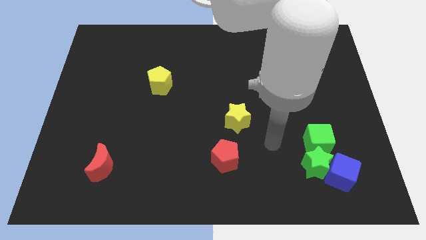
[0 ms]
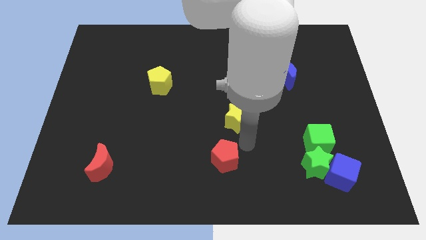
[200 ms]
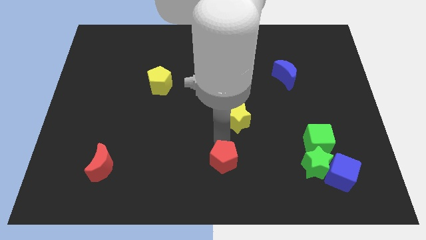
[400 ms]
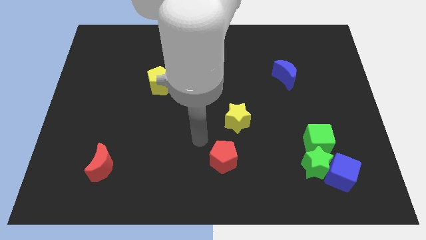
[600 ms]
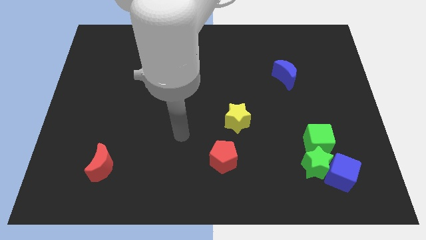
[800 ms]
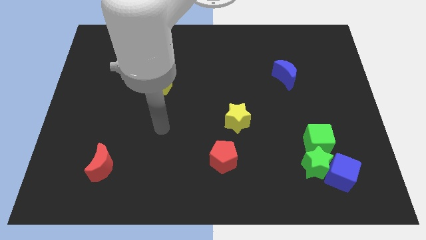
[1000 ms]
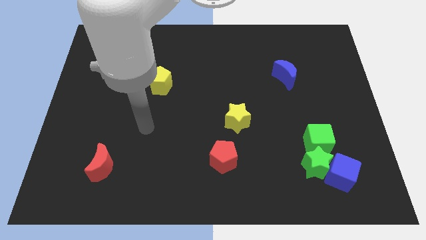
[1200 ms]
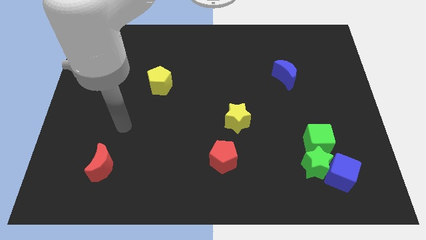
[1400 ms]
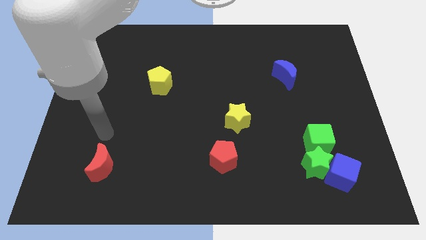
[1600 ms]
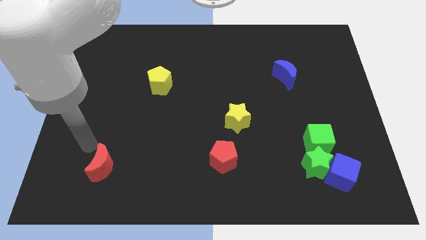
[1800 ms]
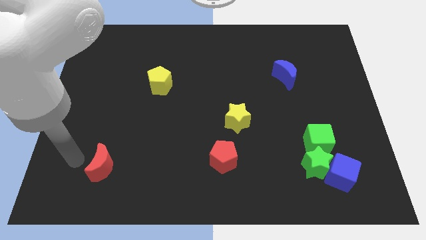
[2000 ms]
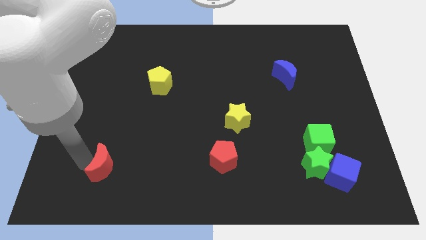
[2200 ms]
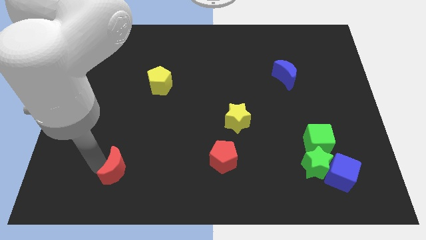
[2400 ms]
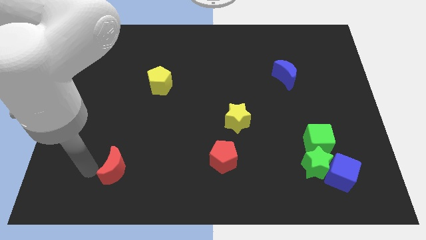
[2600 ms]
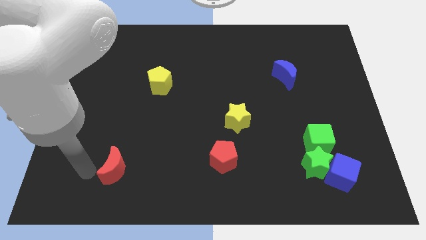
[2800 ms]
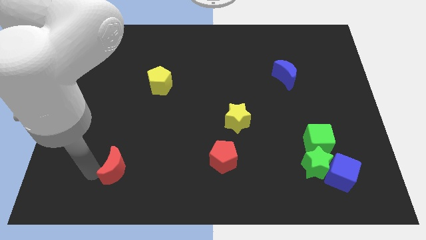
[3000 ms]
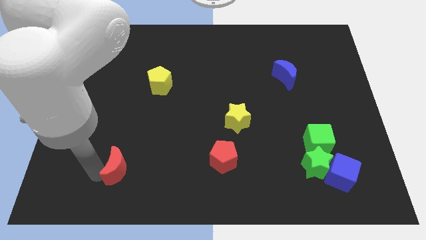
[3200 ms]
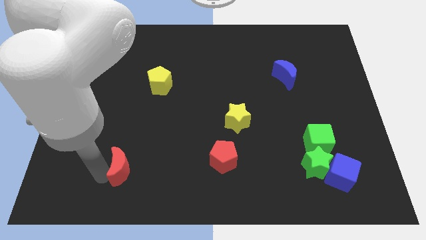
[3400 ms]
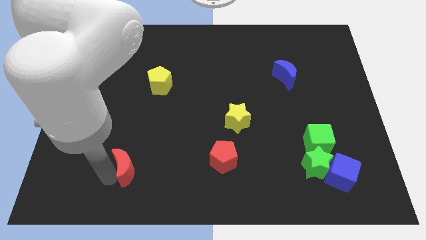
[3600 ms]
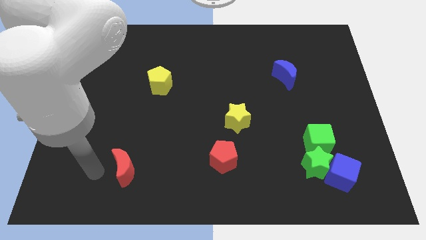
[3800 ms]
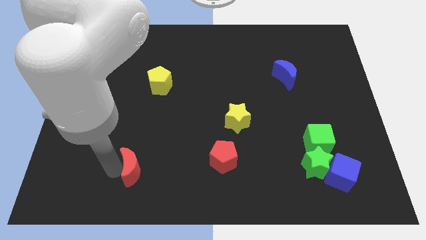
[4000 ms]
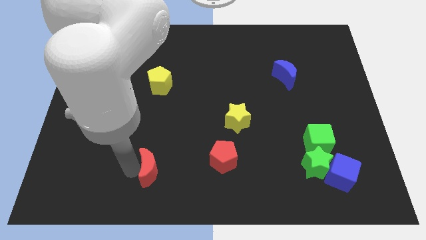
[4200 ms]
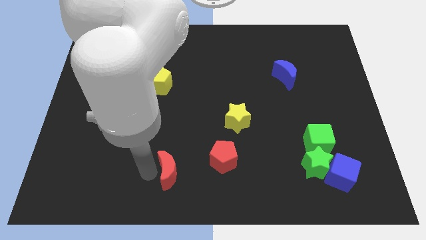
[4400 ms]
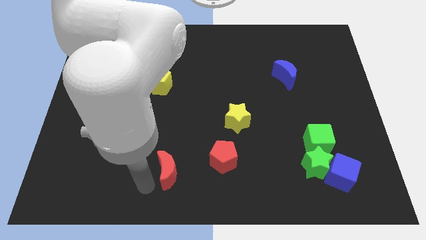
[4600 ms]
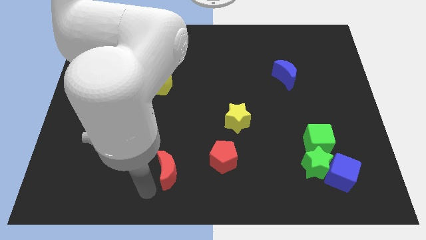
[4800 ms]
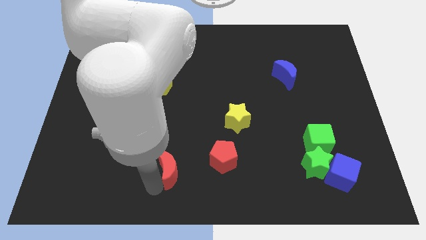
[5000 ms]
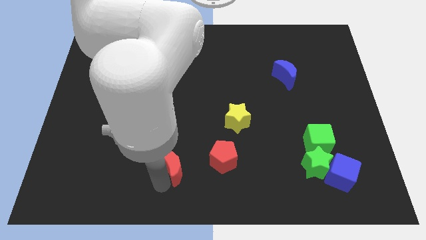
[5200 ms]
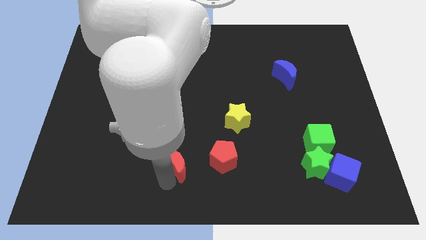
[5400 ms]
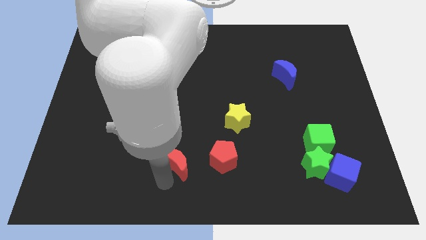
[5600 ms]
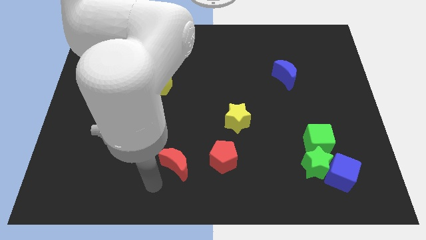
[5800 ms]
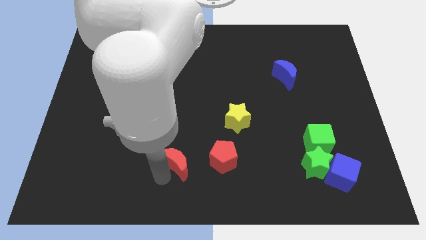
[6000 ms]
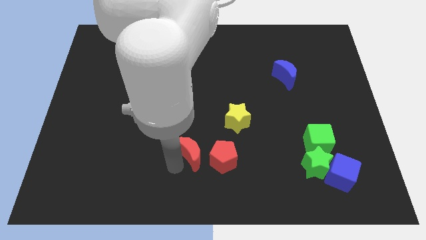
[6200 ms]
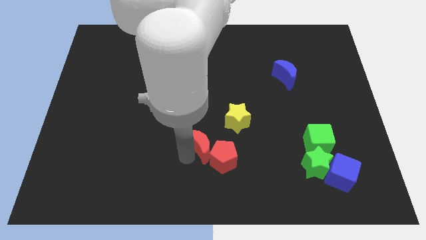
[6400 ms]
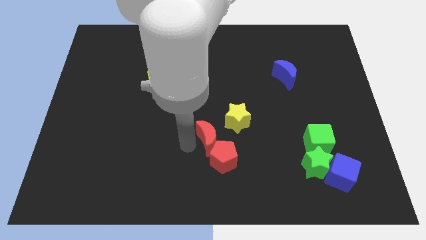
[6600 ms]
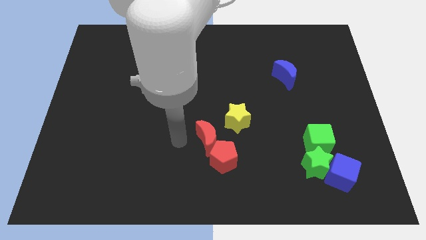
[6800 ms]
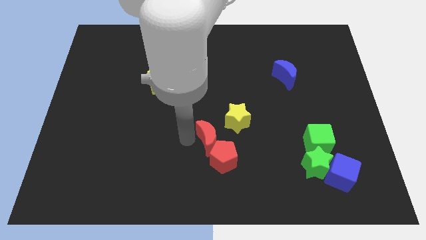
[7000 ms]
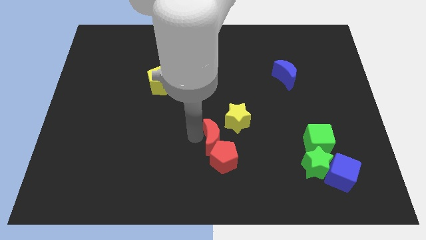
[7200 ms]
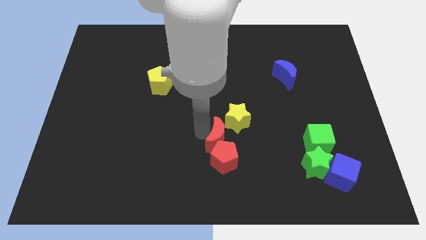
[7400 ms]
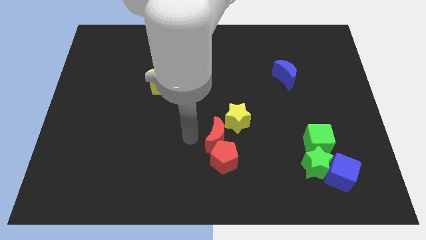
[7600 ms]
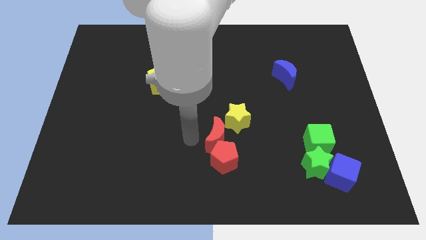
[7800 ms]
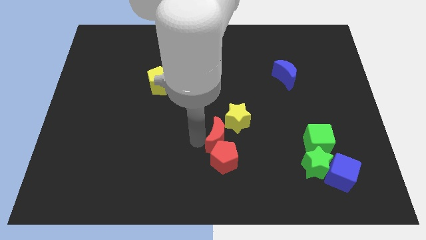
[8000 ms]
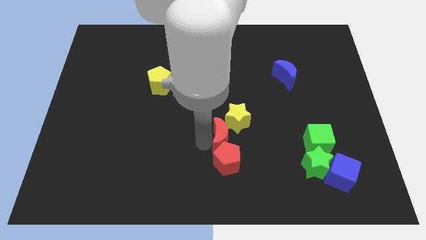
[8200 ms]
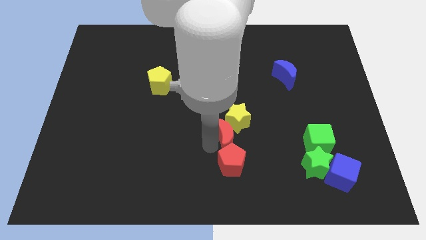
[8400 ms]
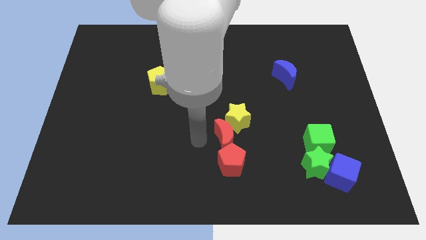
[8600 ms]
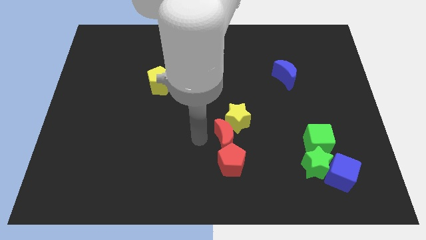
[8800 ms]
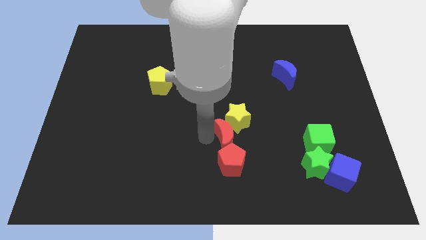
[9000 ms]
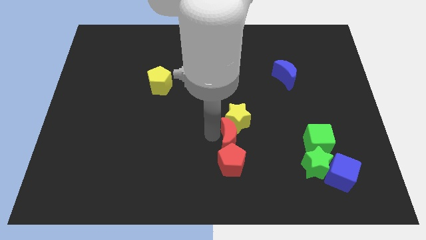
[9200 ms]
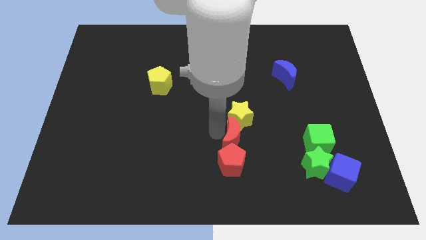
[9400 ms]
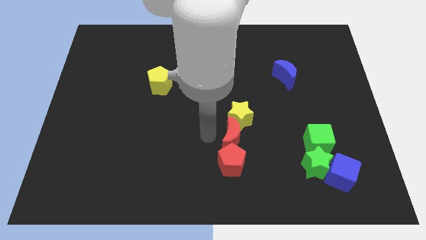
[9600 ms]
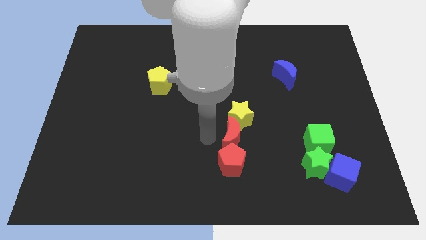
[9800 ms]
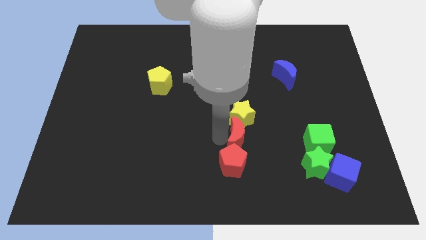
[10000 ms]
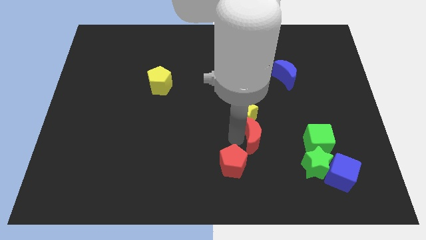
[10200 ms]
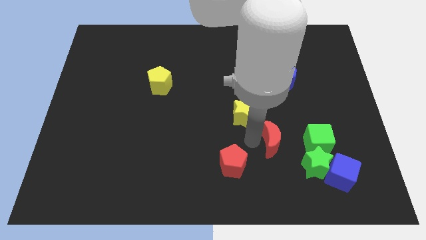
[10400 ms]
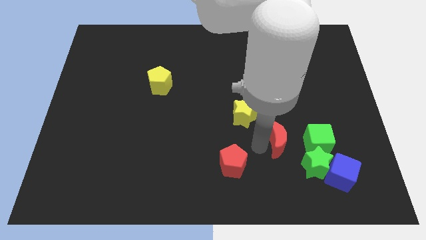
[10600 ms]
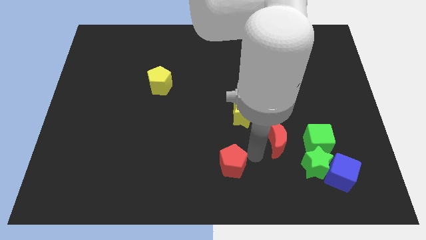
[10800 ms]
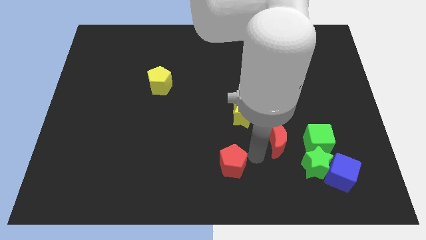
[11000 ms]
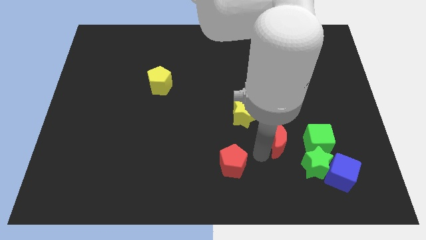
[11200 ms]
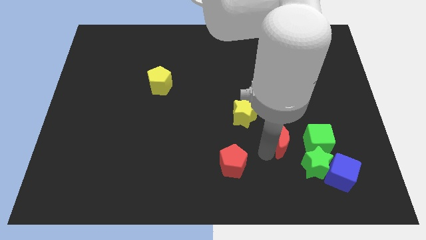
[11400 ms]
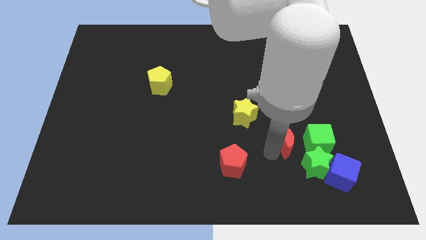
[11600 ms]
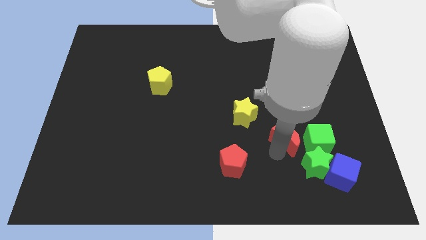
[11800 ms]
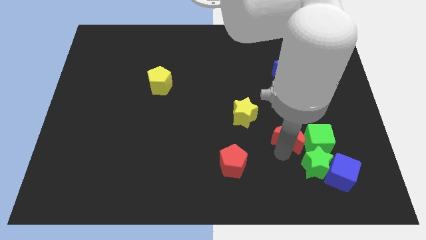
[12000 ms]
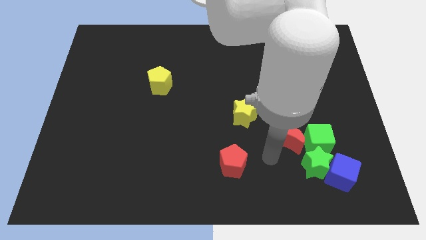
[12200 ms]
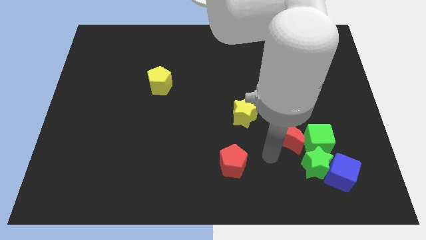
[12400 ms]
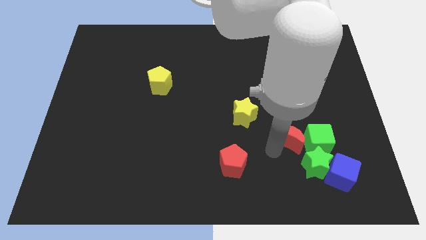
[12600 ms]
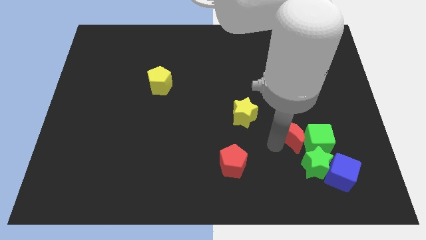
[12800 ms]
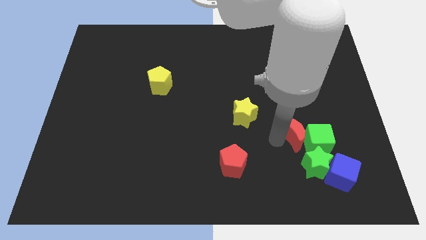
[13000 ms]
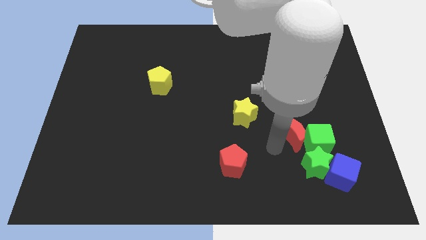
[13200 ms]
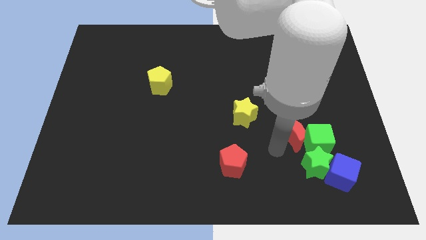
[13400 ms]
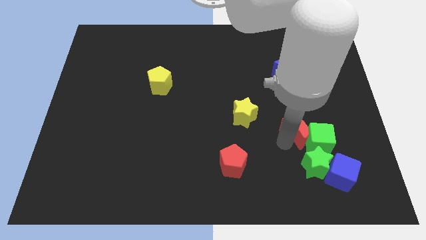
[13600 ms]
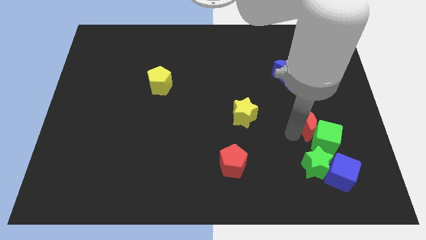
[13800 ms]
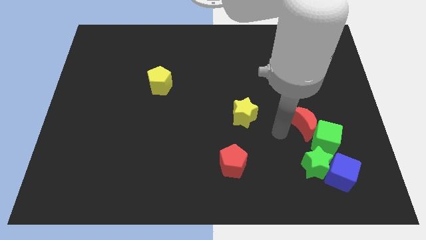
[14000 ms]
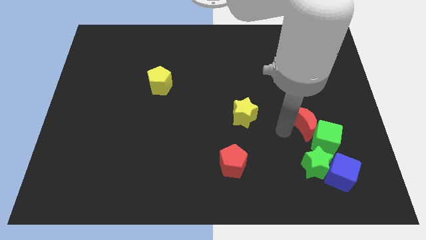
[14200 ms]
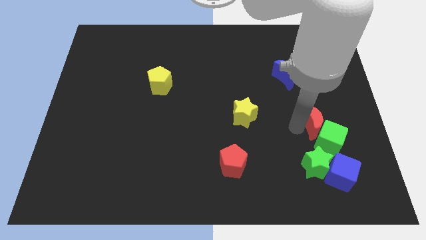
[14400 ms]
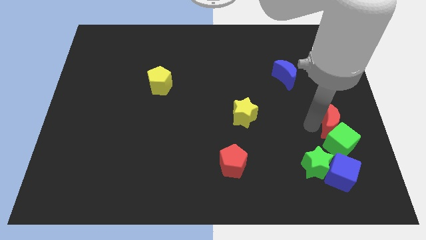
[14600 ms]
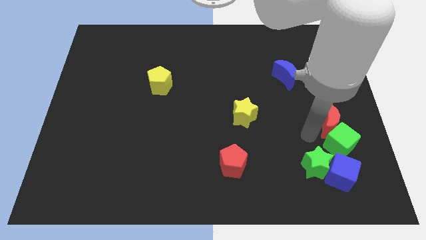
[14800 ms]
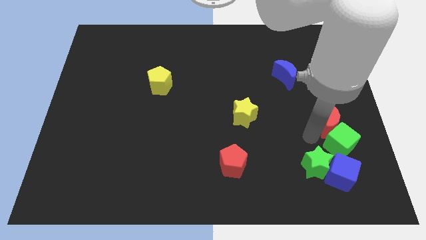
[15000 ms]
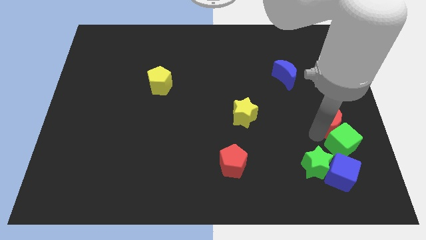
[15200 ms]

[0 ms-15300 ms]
put the red moon to the right side
